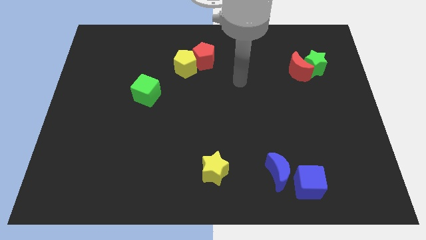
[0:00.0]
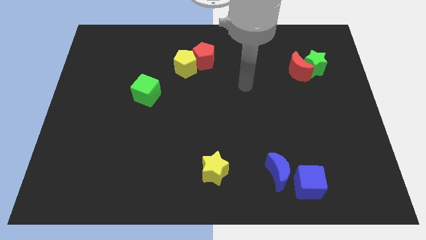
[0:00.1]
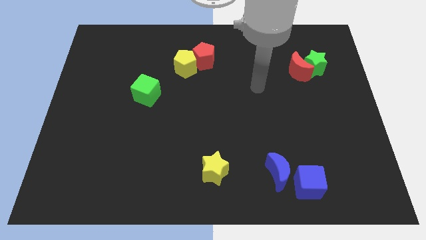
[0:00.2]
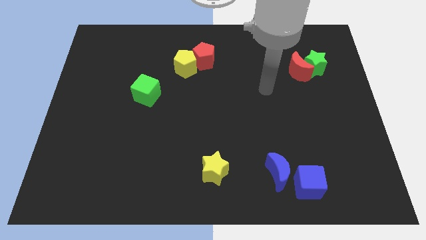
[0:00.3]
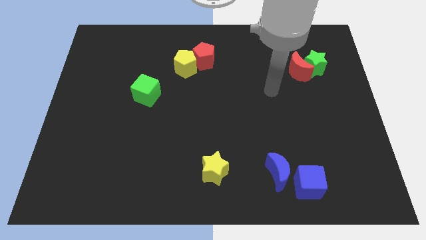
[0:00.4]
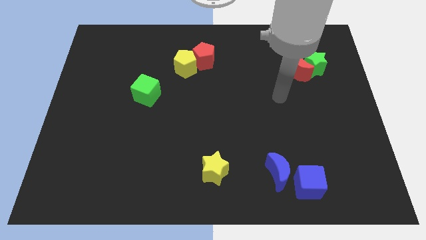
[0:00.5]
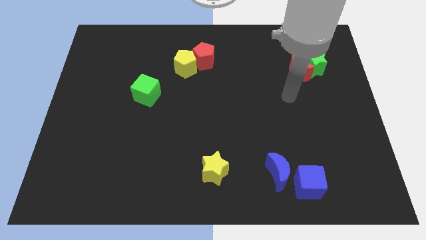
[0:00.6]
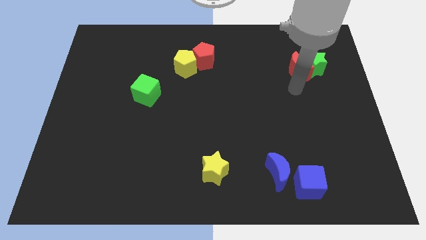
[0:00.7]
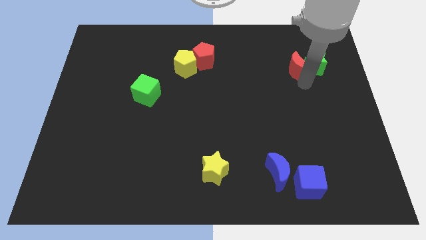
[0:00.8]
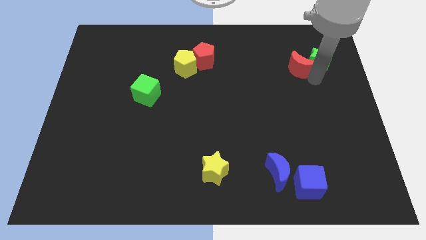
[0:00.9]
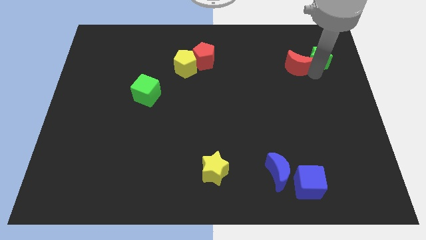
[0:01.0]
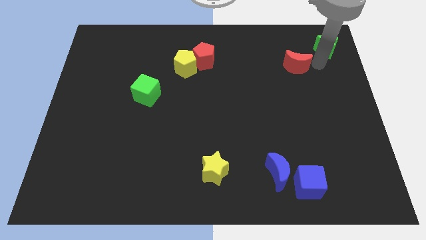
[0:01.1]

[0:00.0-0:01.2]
move the red moon away from the green star

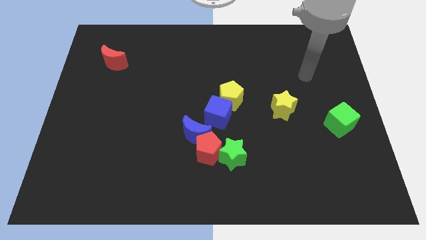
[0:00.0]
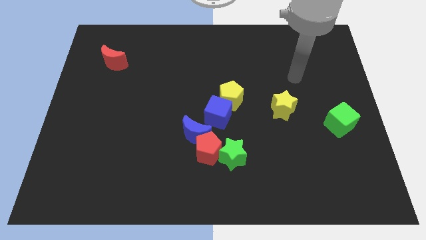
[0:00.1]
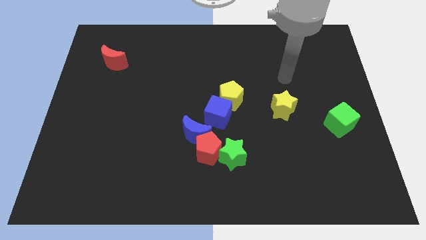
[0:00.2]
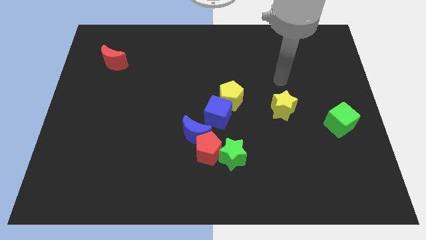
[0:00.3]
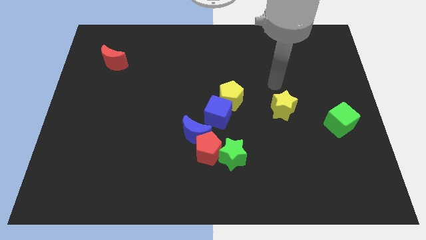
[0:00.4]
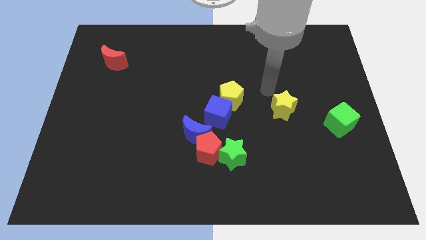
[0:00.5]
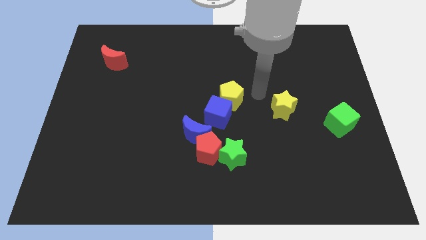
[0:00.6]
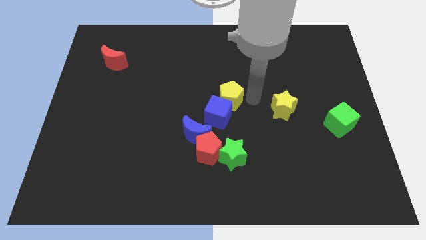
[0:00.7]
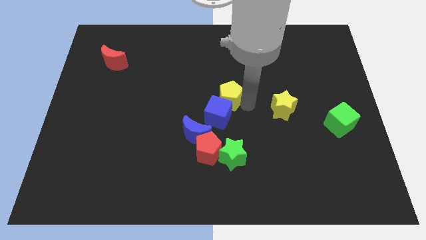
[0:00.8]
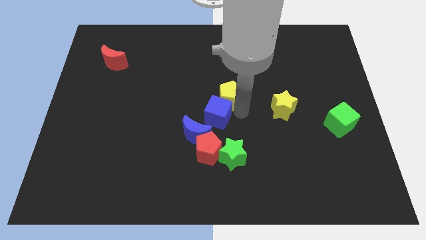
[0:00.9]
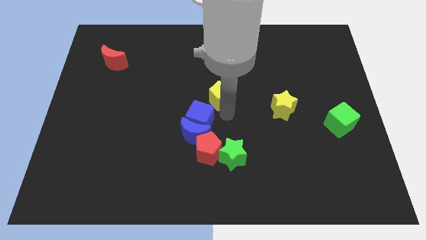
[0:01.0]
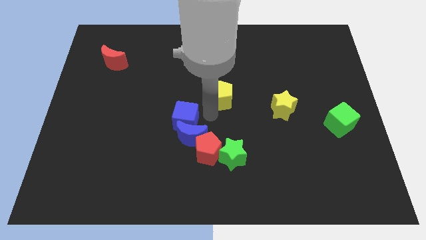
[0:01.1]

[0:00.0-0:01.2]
move the yellow pentagon away from the blue cube

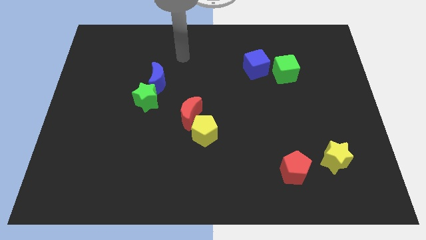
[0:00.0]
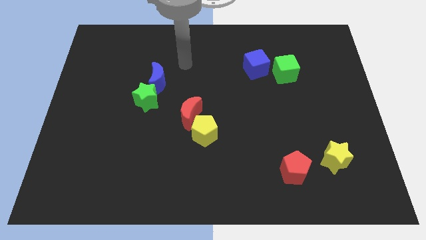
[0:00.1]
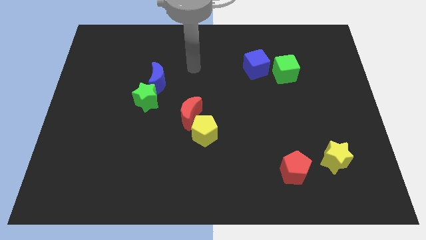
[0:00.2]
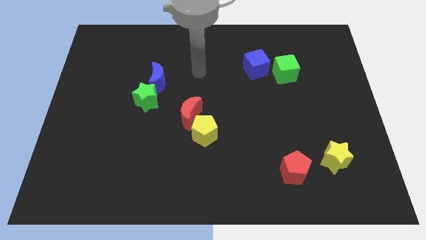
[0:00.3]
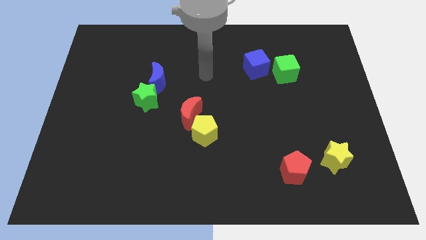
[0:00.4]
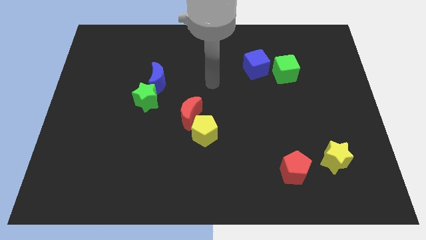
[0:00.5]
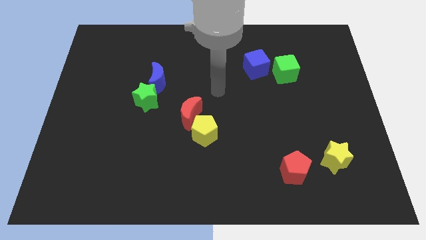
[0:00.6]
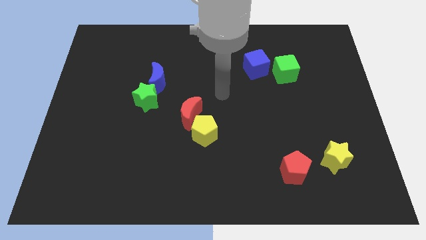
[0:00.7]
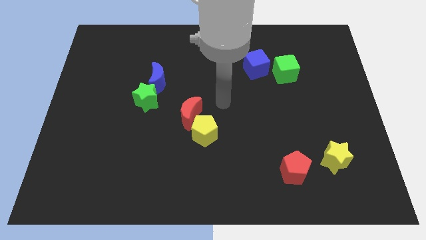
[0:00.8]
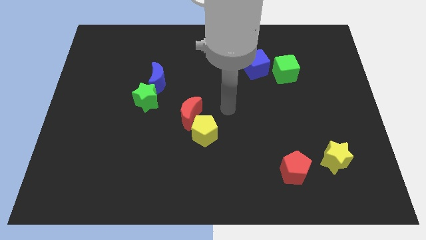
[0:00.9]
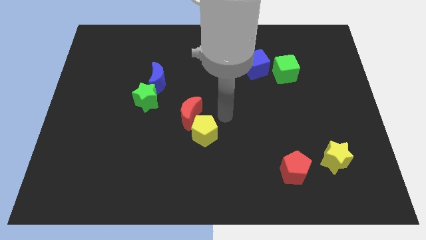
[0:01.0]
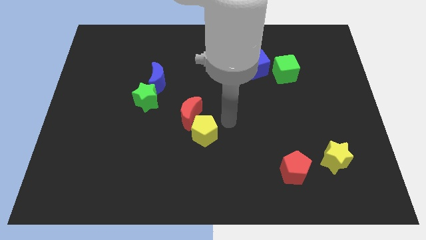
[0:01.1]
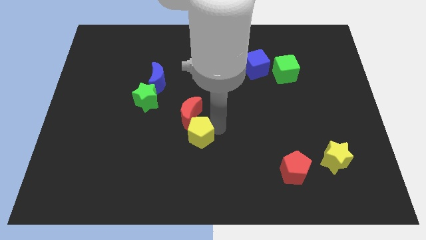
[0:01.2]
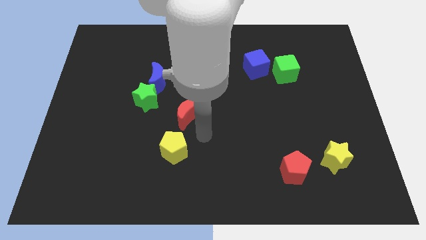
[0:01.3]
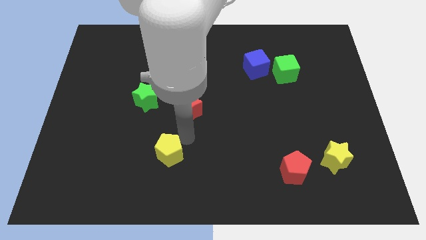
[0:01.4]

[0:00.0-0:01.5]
separate the red moon from the yellow pentagon

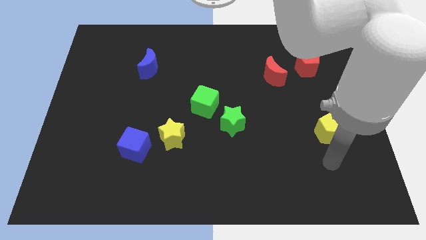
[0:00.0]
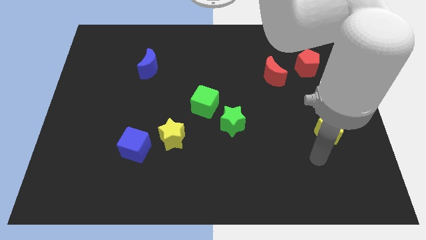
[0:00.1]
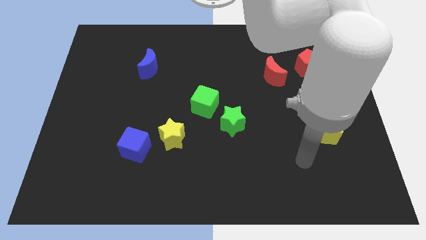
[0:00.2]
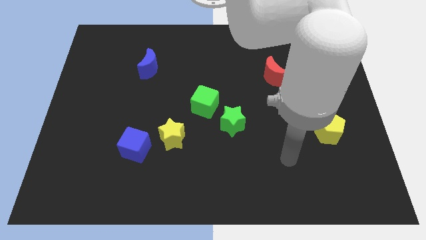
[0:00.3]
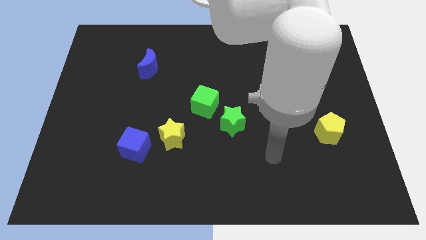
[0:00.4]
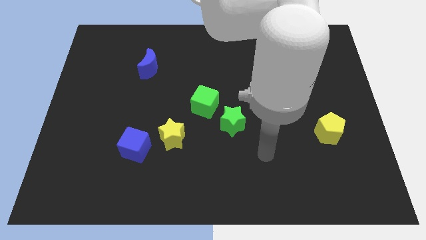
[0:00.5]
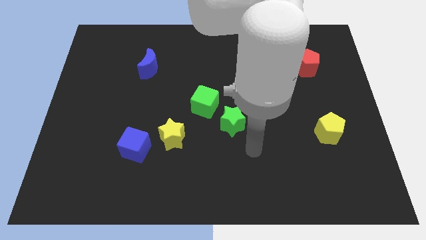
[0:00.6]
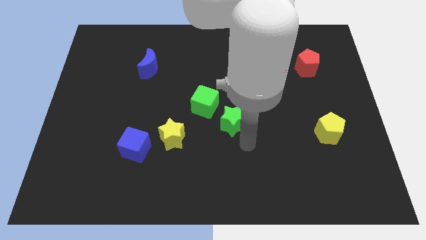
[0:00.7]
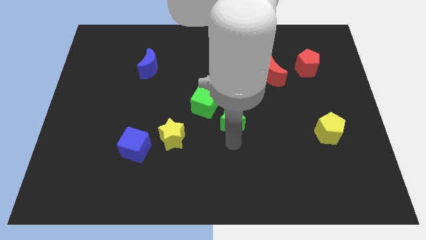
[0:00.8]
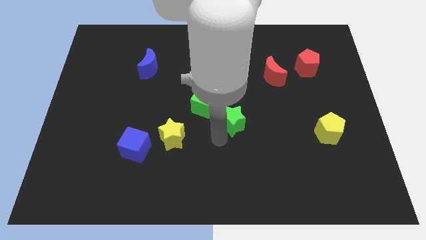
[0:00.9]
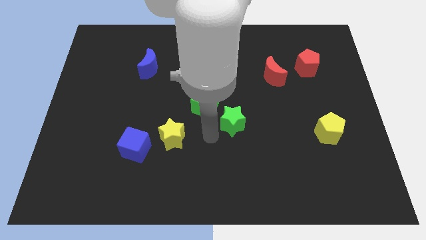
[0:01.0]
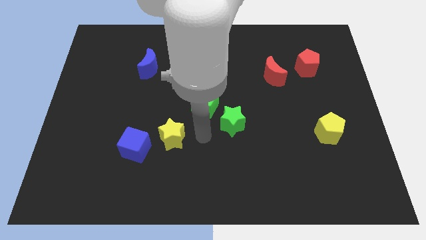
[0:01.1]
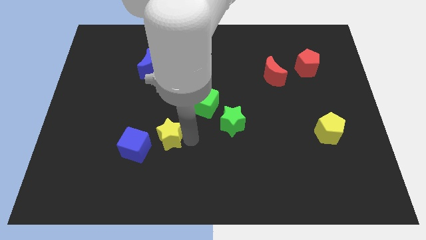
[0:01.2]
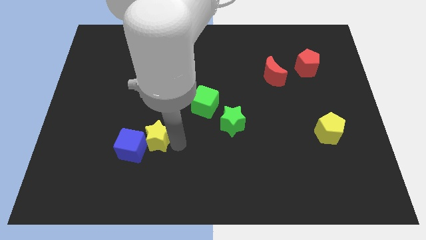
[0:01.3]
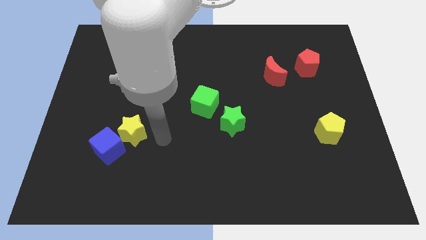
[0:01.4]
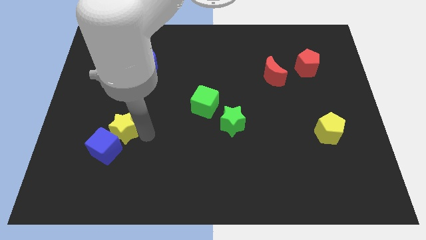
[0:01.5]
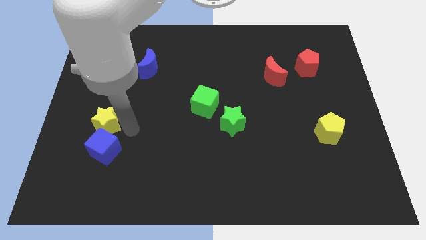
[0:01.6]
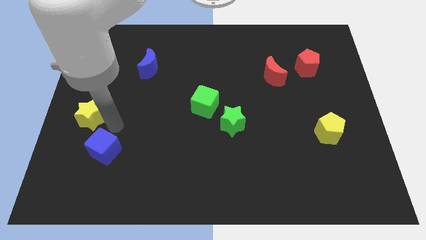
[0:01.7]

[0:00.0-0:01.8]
separate the blue cube from the yellow star

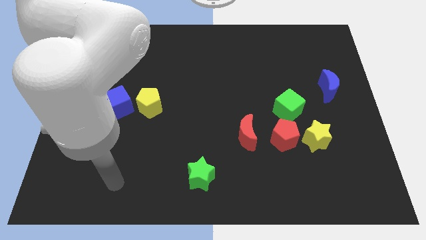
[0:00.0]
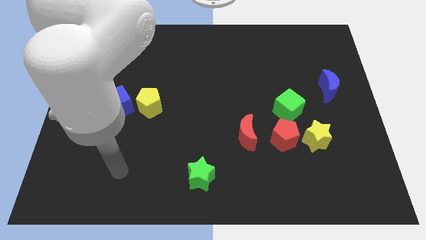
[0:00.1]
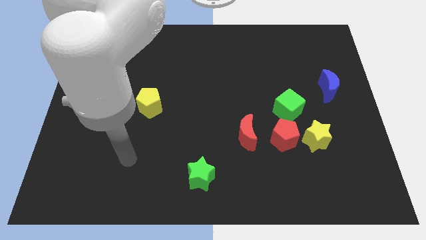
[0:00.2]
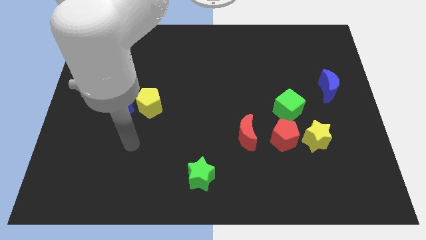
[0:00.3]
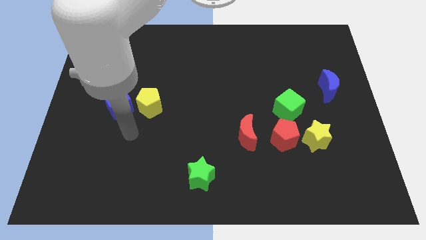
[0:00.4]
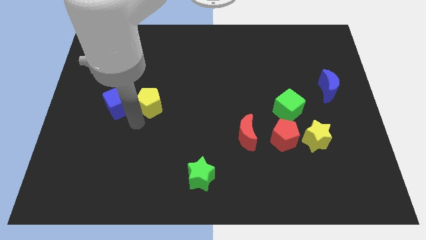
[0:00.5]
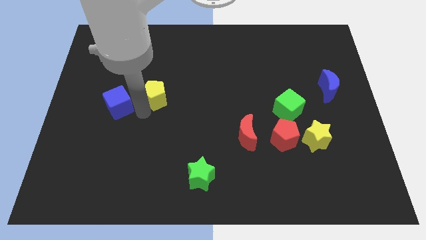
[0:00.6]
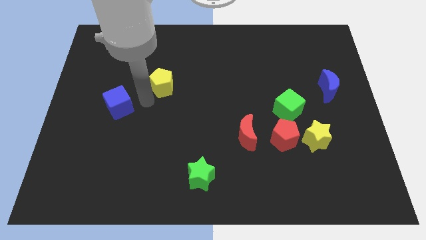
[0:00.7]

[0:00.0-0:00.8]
separate the blue cube from the yellow pentagon

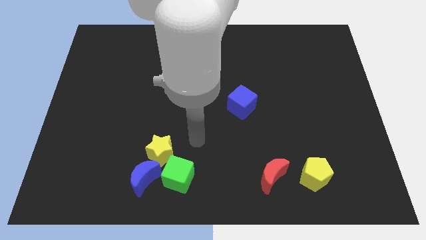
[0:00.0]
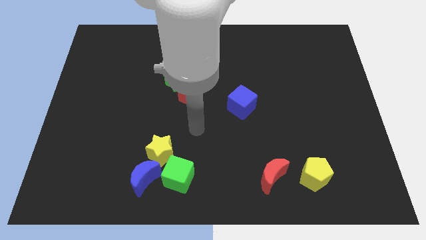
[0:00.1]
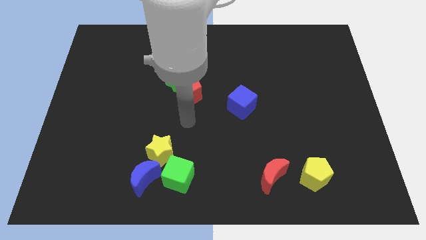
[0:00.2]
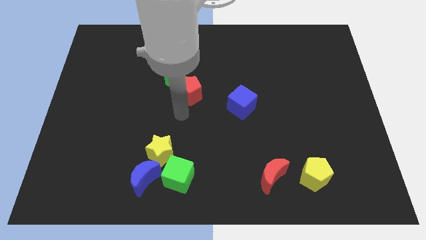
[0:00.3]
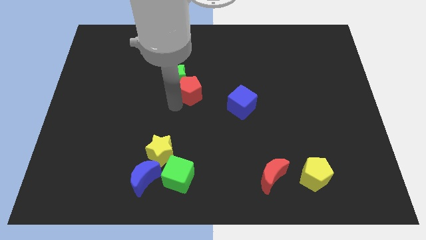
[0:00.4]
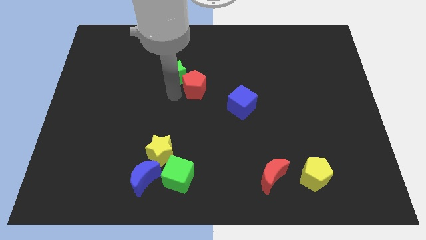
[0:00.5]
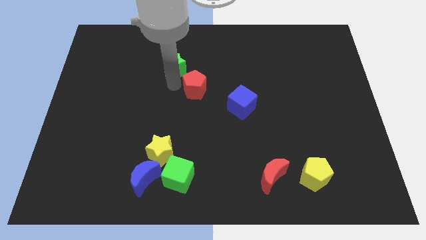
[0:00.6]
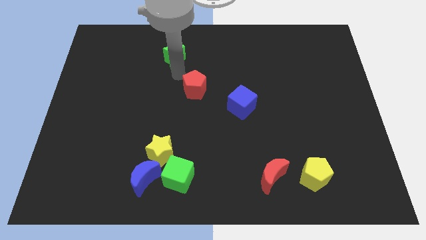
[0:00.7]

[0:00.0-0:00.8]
move the red pentagon away from the green star

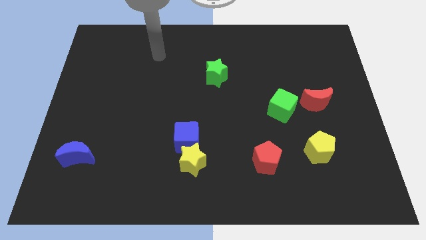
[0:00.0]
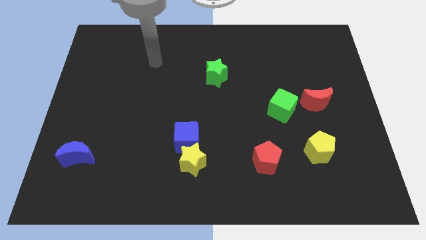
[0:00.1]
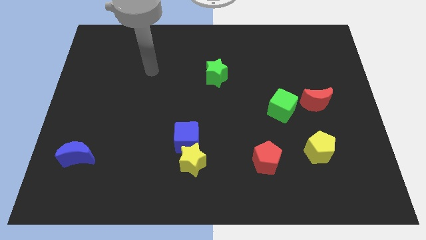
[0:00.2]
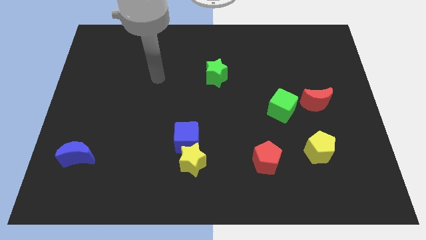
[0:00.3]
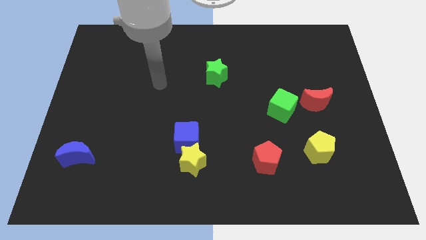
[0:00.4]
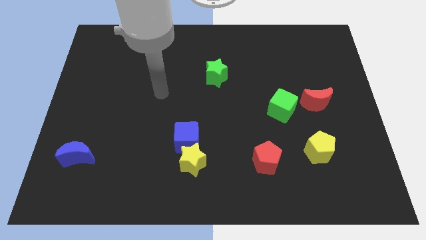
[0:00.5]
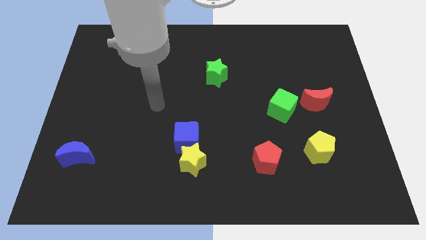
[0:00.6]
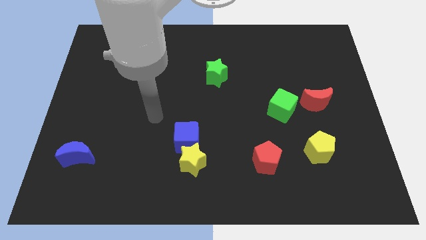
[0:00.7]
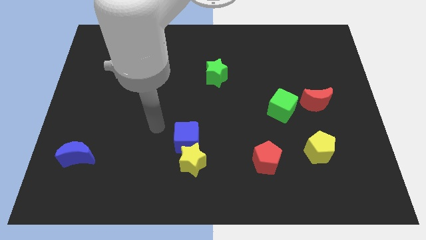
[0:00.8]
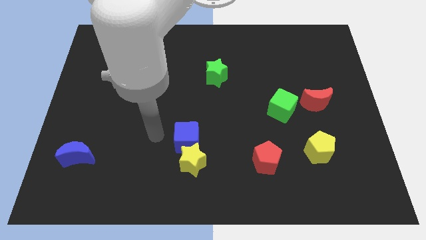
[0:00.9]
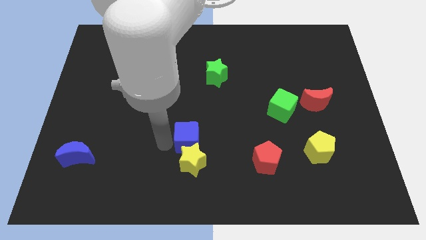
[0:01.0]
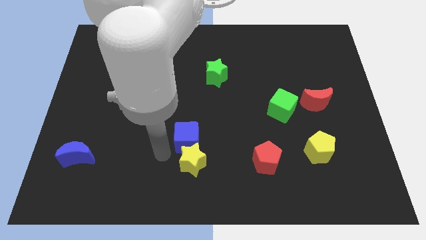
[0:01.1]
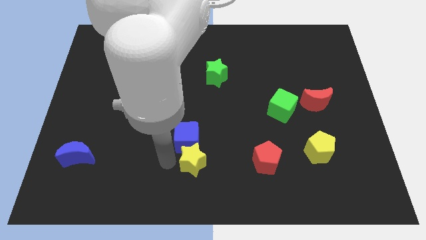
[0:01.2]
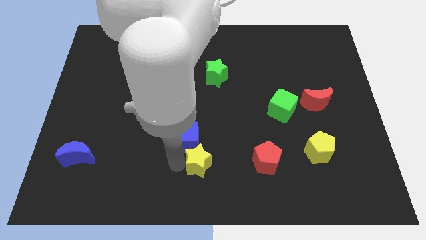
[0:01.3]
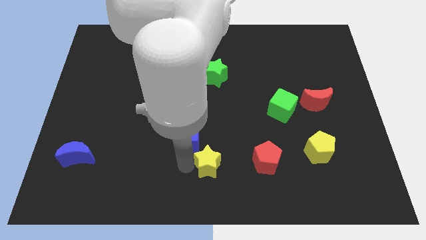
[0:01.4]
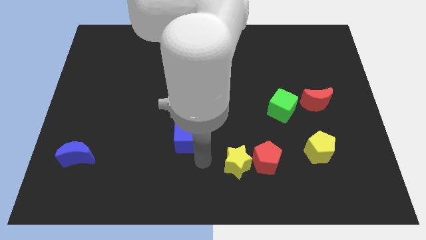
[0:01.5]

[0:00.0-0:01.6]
move the blue cube away from the yellow star

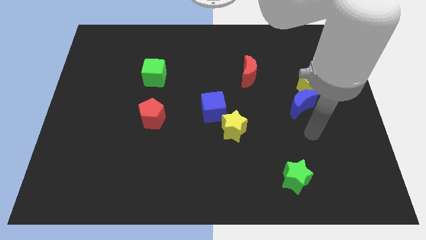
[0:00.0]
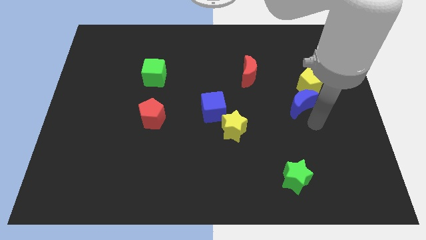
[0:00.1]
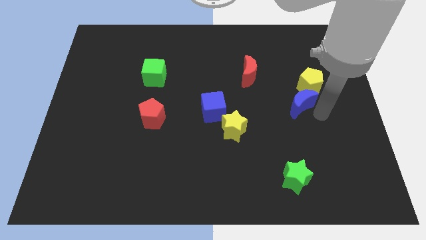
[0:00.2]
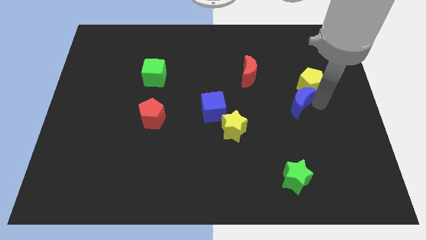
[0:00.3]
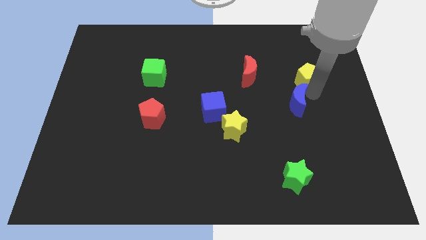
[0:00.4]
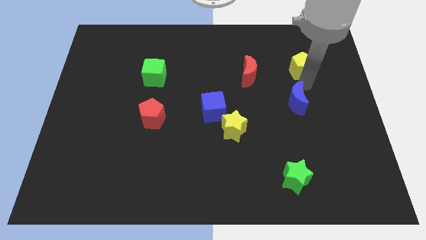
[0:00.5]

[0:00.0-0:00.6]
separate the blue moon from the yellow pentagon
